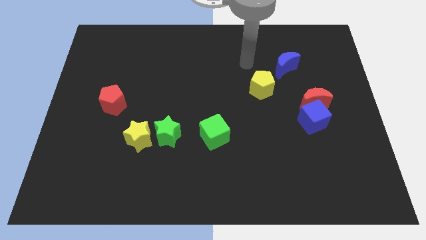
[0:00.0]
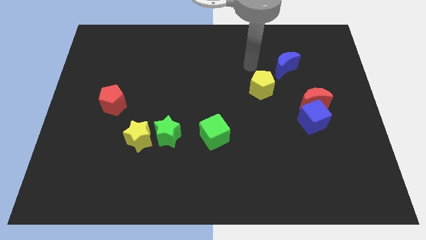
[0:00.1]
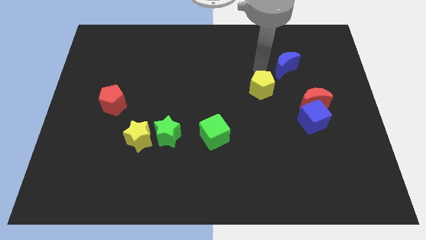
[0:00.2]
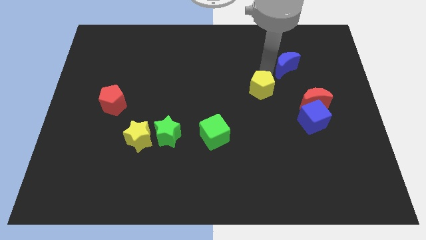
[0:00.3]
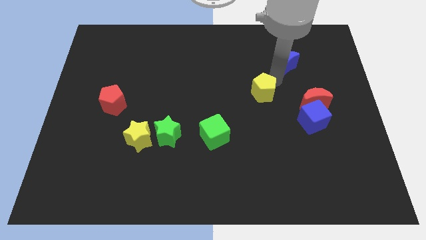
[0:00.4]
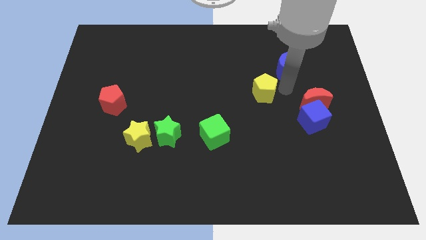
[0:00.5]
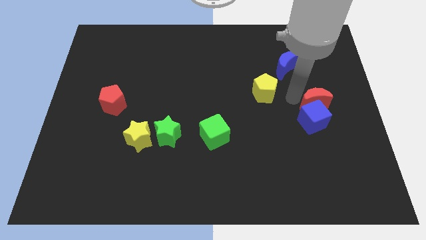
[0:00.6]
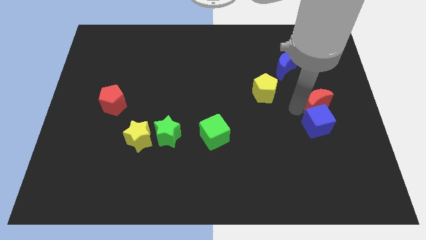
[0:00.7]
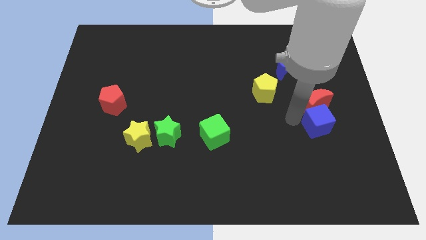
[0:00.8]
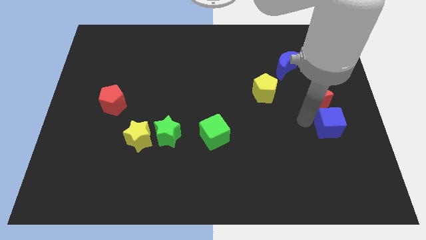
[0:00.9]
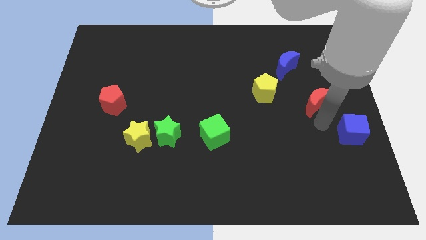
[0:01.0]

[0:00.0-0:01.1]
pull the red moon apart from the blue cube

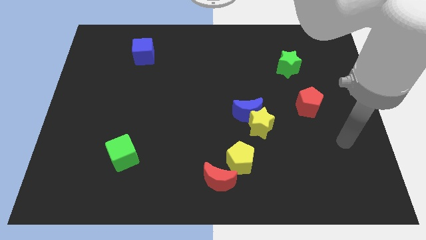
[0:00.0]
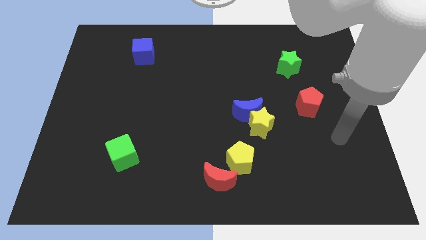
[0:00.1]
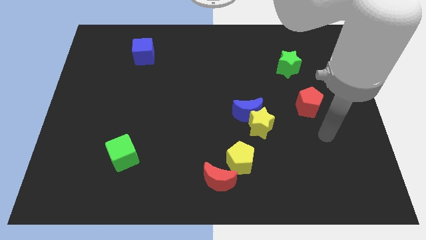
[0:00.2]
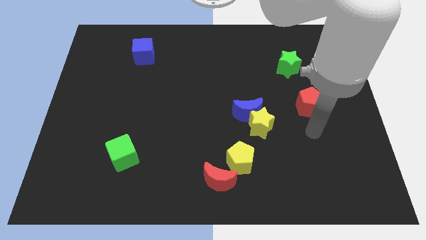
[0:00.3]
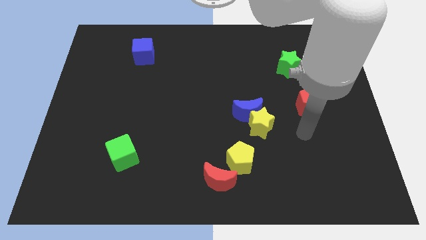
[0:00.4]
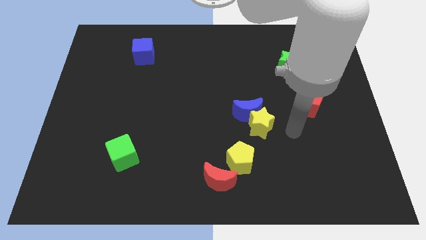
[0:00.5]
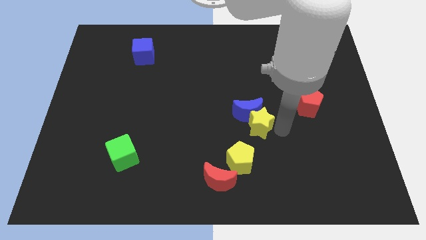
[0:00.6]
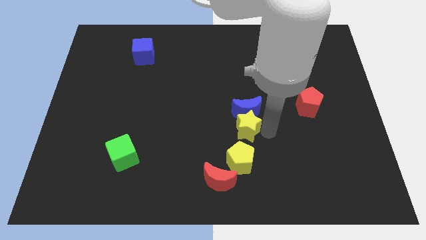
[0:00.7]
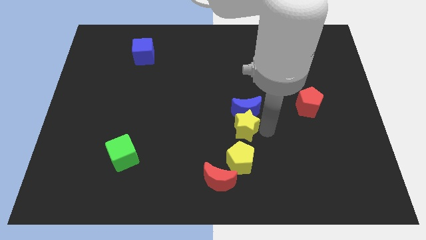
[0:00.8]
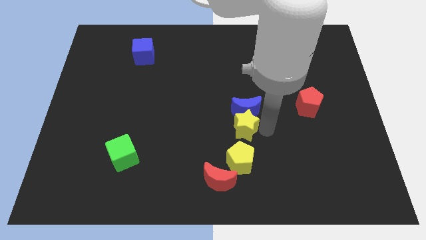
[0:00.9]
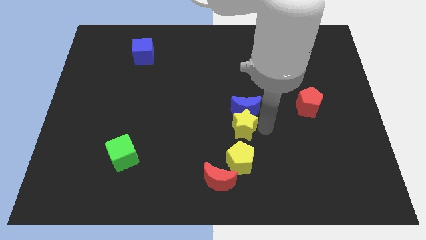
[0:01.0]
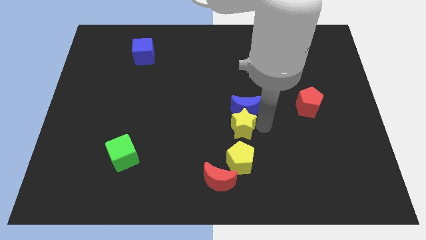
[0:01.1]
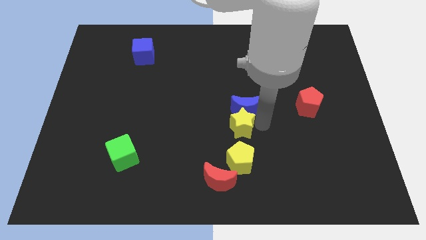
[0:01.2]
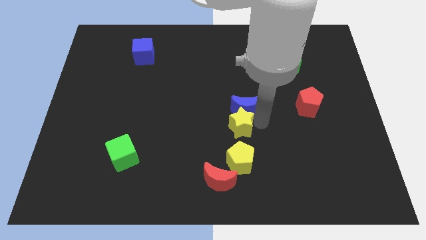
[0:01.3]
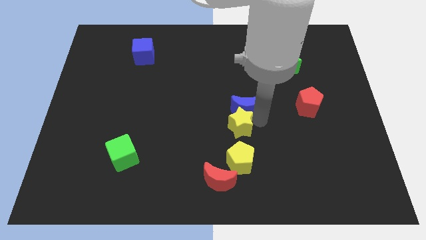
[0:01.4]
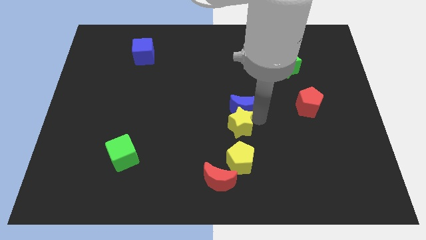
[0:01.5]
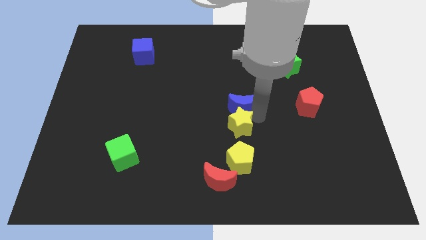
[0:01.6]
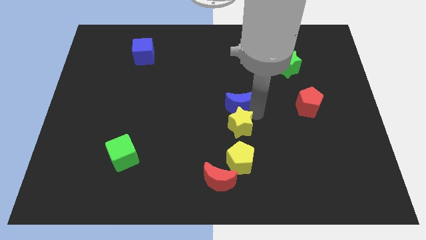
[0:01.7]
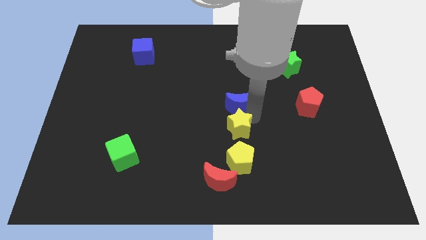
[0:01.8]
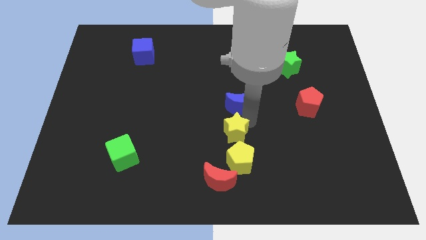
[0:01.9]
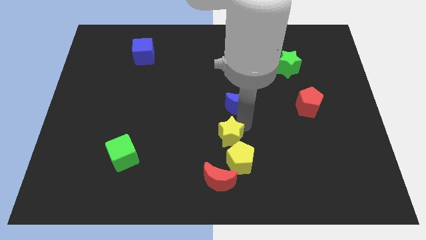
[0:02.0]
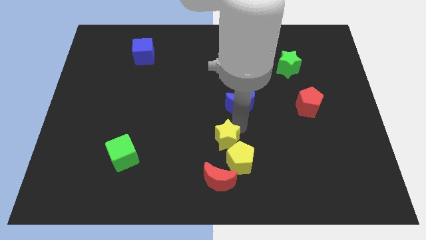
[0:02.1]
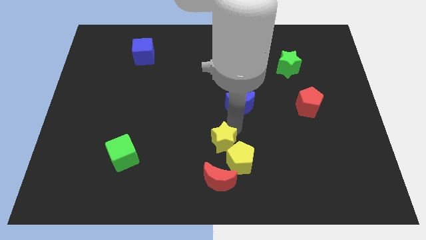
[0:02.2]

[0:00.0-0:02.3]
move the blue moon away from the yellow star

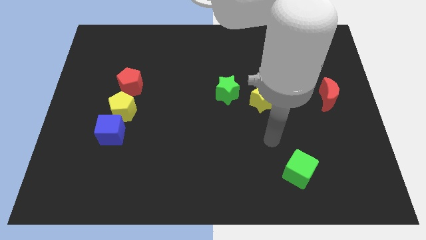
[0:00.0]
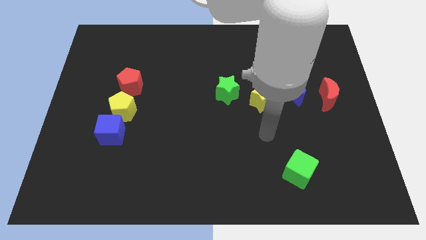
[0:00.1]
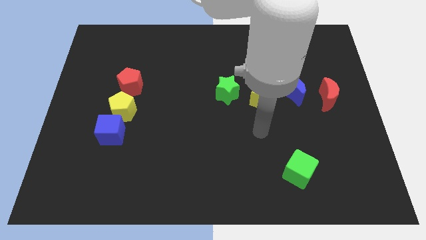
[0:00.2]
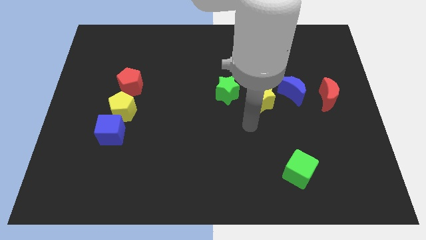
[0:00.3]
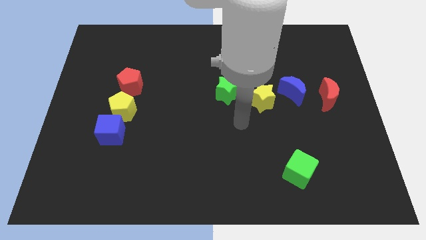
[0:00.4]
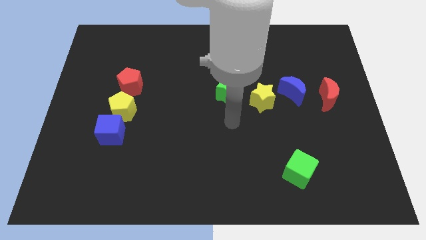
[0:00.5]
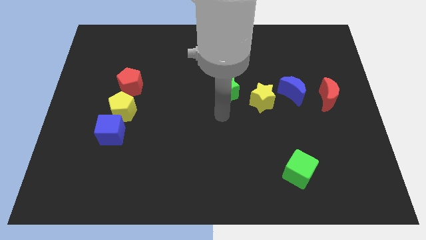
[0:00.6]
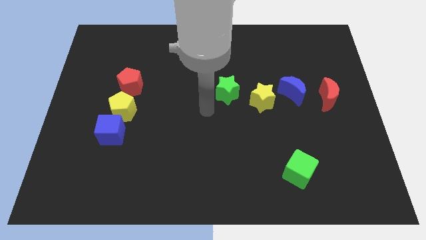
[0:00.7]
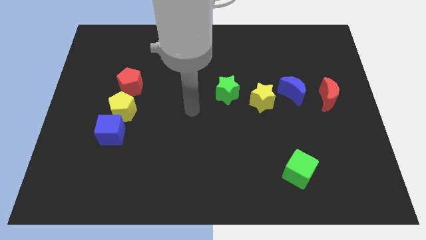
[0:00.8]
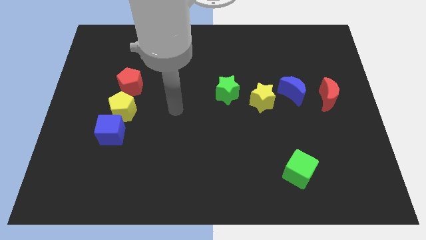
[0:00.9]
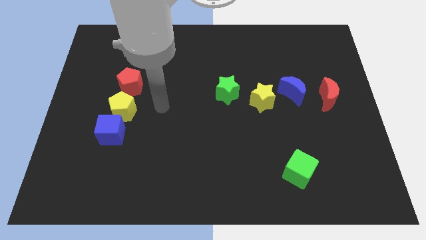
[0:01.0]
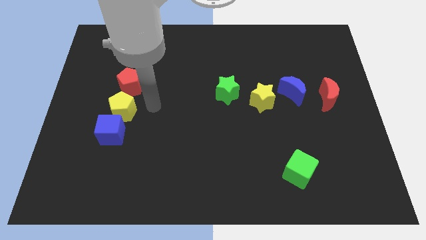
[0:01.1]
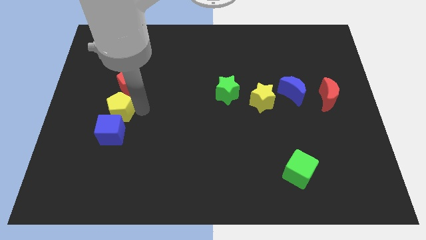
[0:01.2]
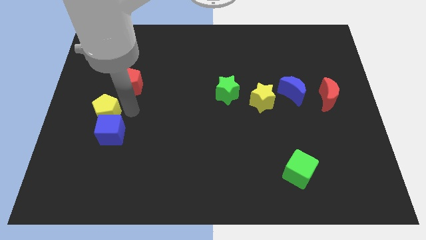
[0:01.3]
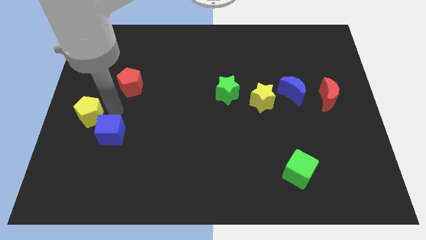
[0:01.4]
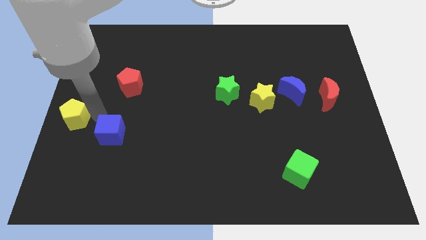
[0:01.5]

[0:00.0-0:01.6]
move the blue cube away from the yellow pentagon

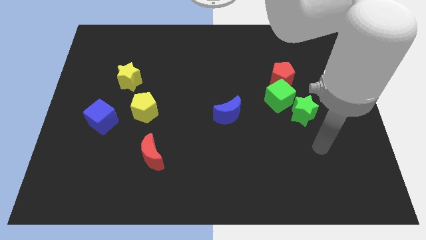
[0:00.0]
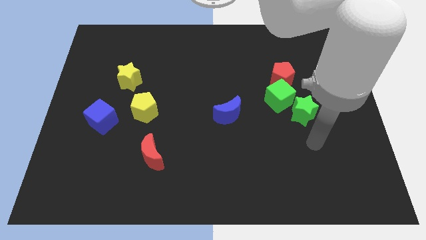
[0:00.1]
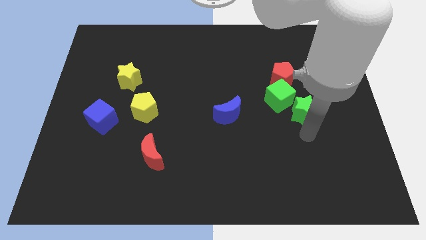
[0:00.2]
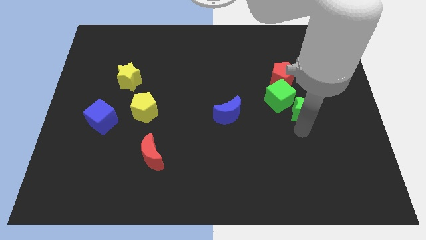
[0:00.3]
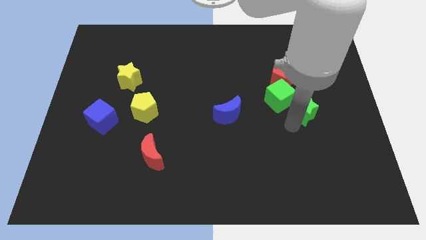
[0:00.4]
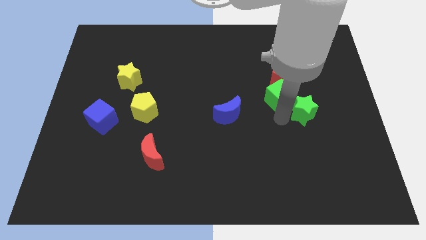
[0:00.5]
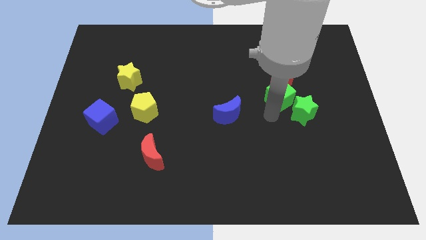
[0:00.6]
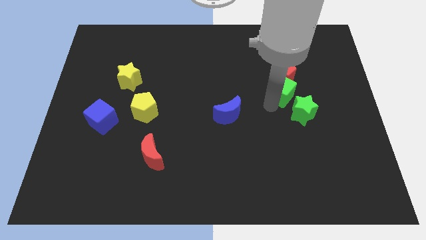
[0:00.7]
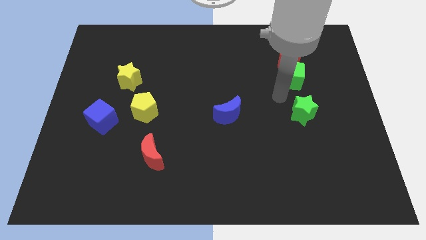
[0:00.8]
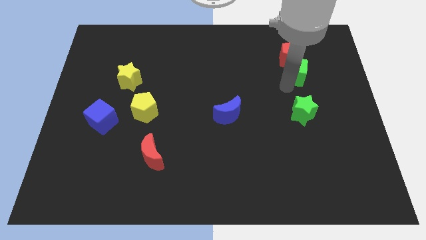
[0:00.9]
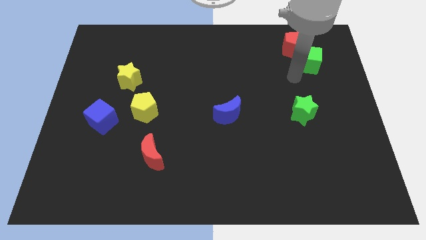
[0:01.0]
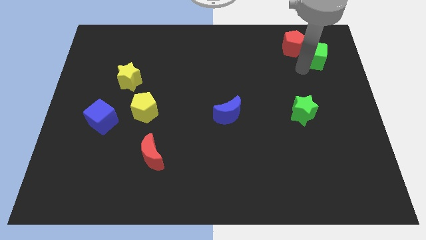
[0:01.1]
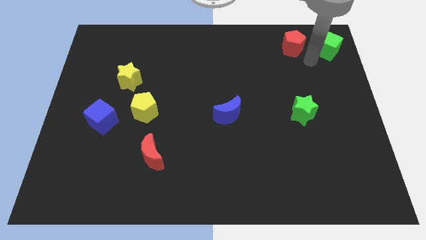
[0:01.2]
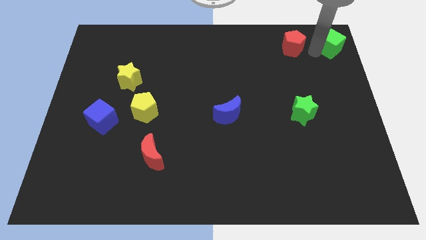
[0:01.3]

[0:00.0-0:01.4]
move the red pentagon away from the green cube

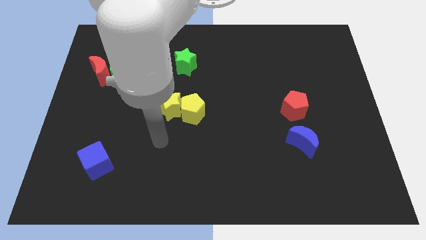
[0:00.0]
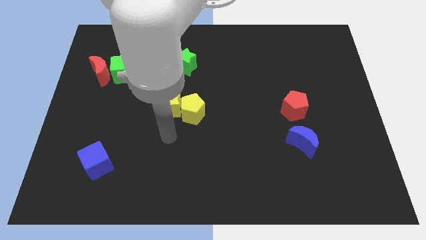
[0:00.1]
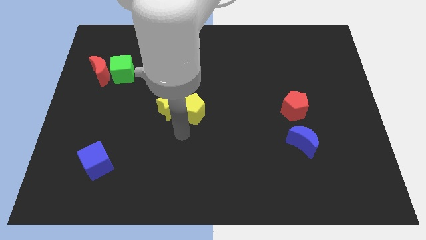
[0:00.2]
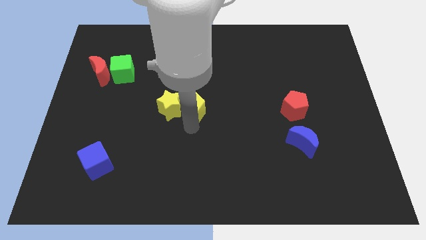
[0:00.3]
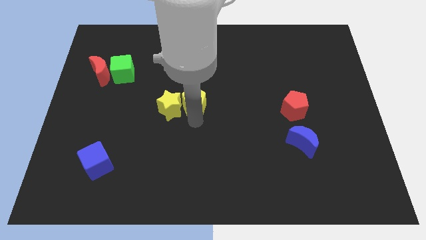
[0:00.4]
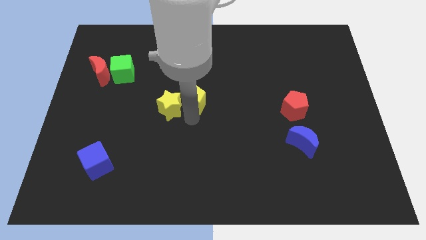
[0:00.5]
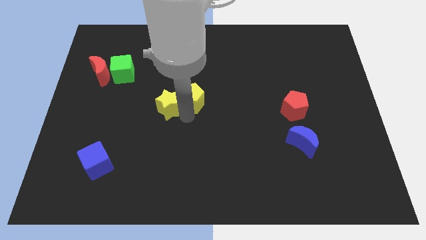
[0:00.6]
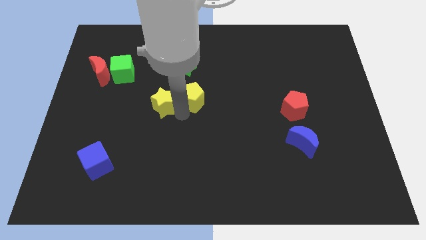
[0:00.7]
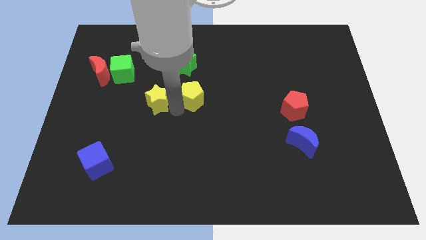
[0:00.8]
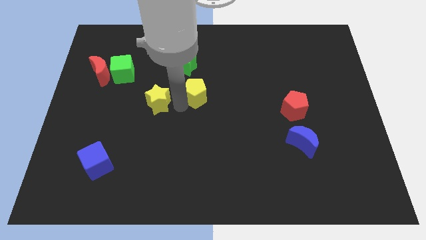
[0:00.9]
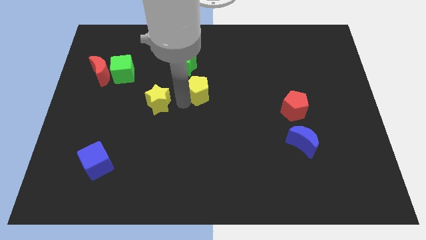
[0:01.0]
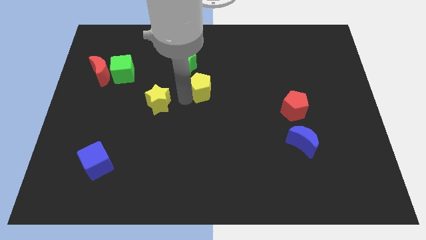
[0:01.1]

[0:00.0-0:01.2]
separate the yellow star from the yellow pentagon

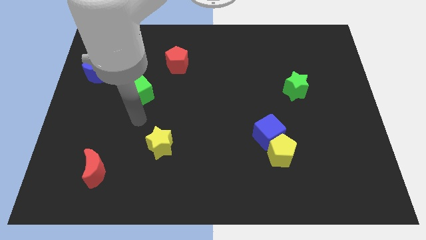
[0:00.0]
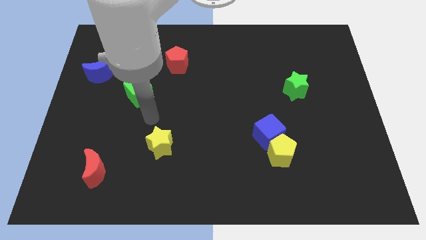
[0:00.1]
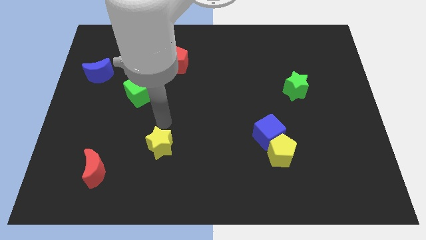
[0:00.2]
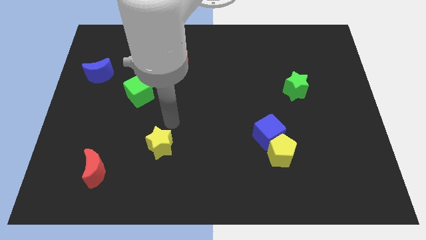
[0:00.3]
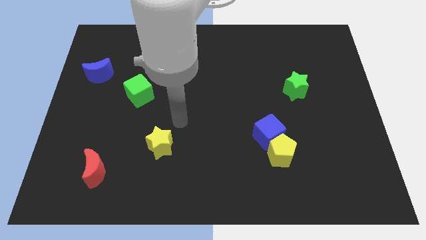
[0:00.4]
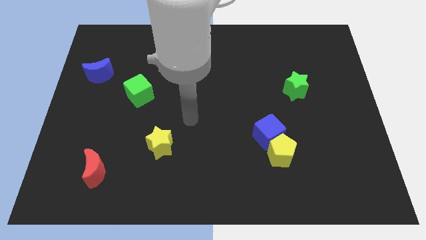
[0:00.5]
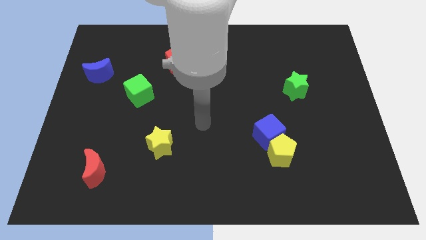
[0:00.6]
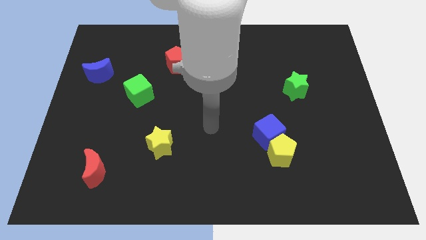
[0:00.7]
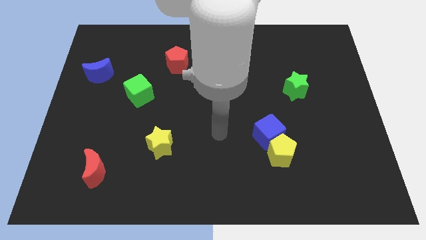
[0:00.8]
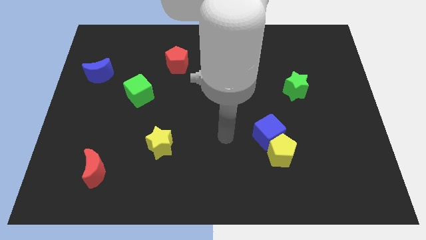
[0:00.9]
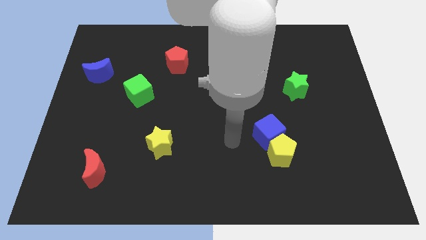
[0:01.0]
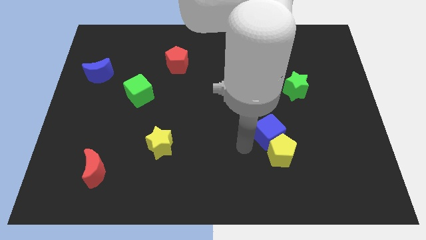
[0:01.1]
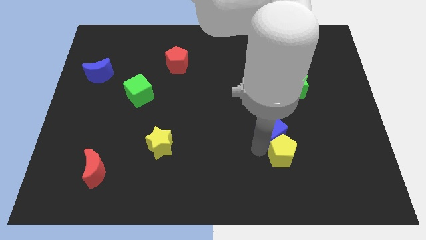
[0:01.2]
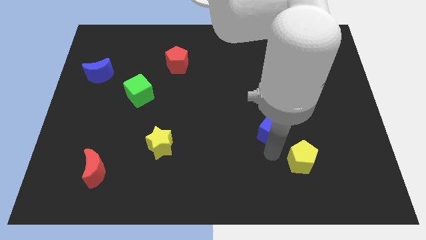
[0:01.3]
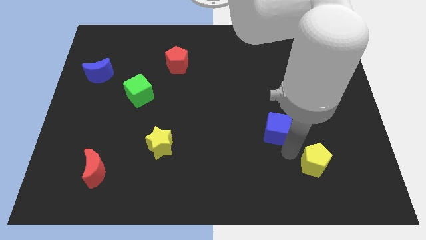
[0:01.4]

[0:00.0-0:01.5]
separate the blue cube from the yellow pentagon
